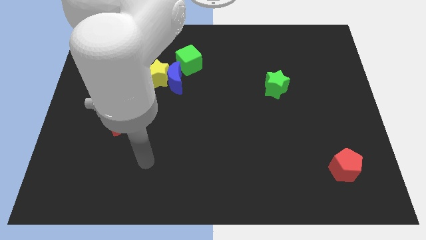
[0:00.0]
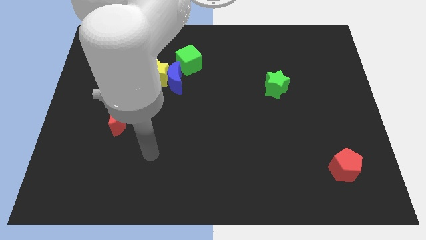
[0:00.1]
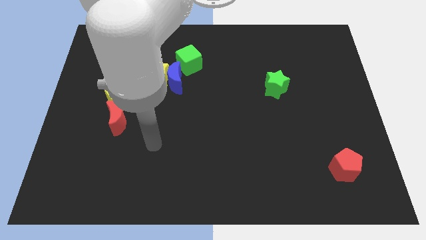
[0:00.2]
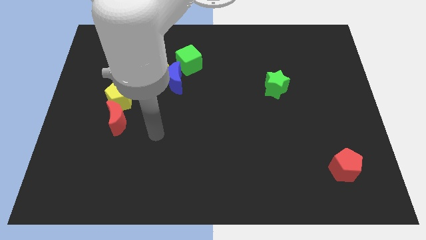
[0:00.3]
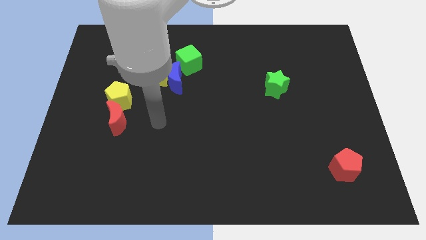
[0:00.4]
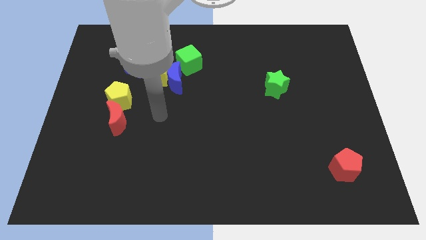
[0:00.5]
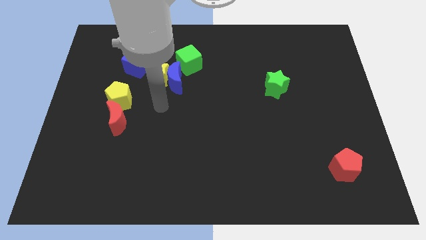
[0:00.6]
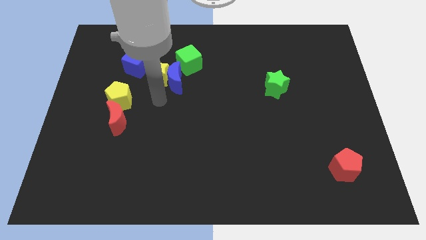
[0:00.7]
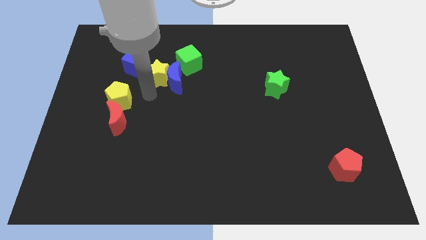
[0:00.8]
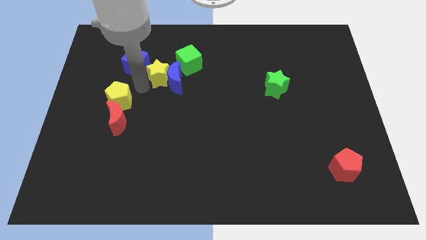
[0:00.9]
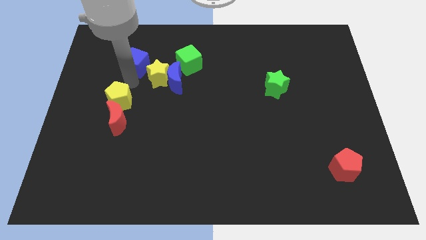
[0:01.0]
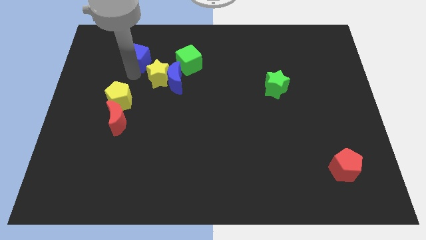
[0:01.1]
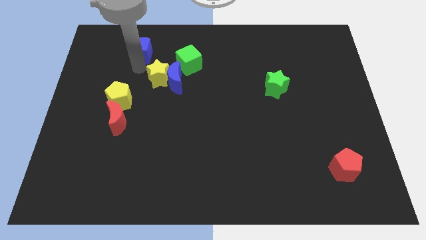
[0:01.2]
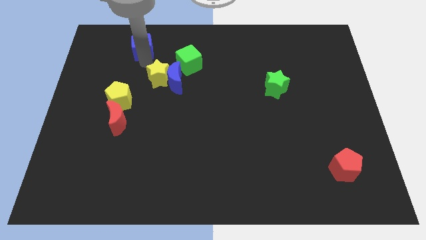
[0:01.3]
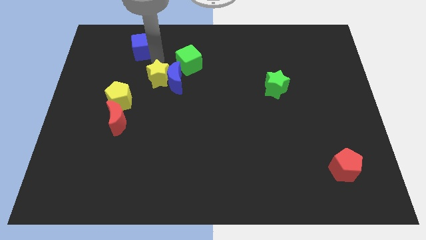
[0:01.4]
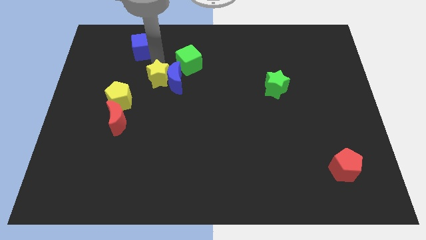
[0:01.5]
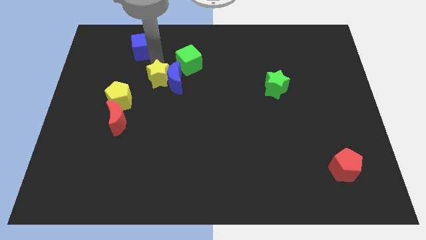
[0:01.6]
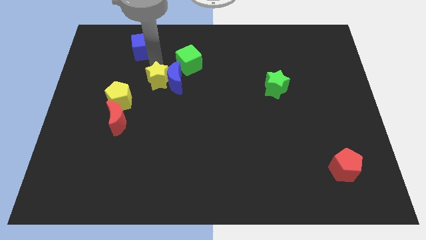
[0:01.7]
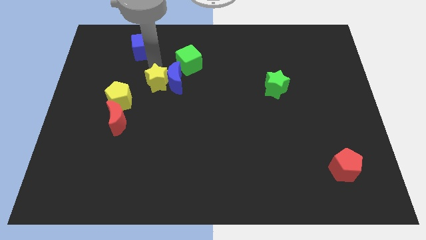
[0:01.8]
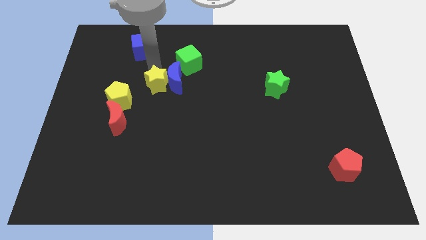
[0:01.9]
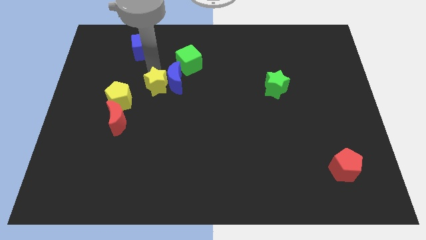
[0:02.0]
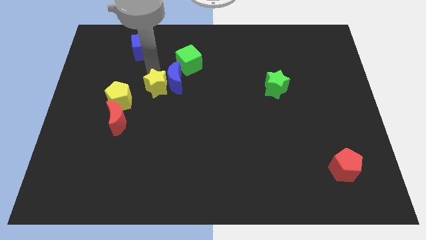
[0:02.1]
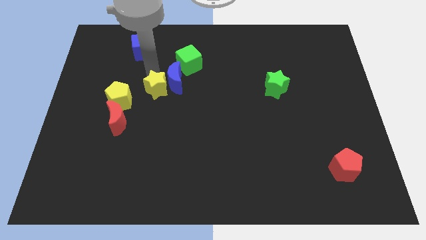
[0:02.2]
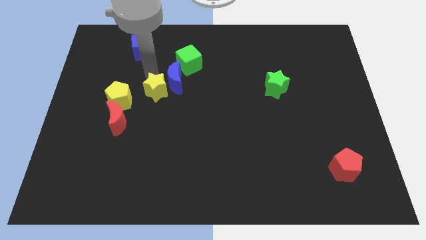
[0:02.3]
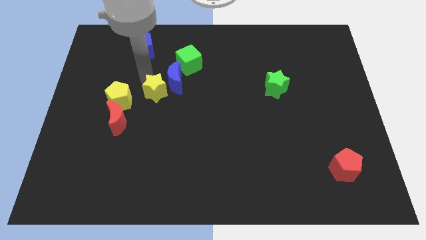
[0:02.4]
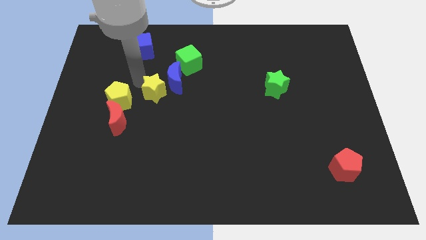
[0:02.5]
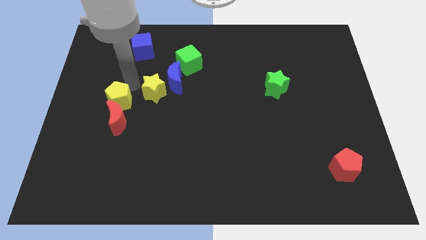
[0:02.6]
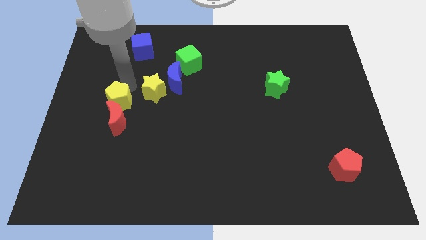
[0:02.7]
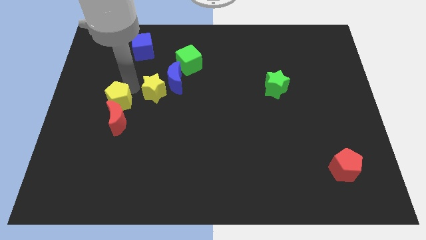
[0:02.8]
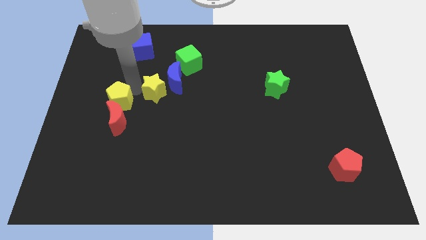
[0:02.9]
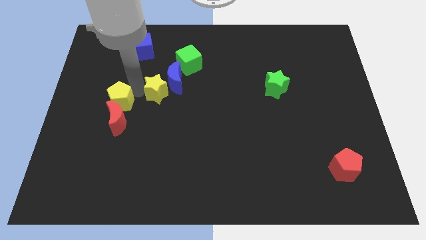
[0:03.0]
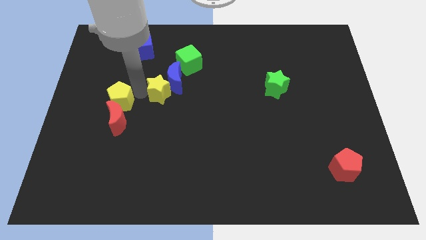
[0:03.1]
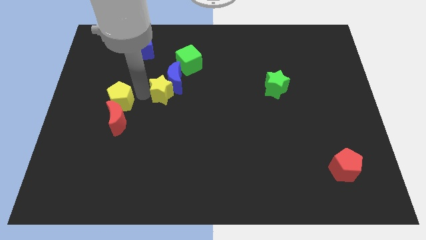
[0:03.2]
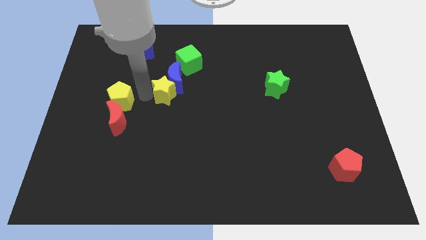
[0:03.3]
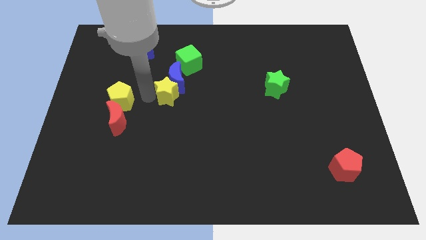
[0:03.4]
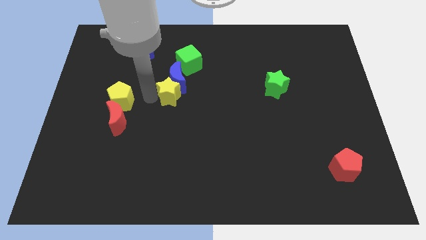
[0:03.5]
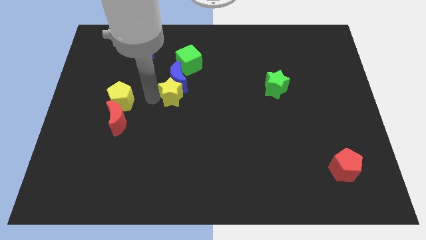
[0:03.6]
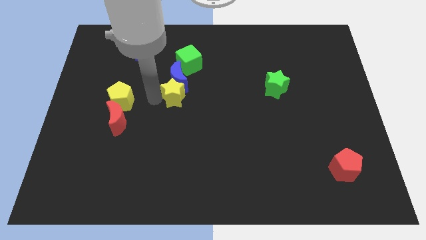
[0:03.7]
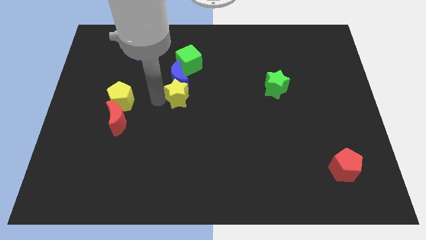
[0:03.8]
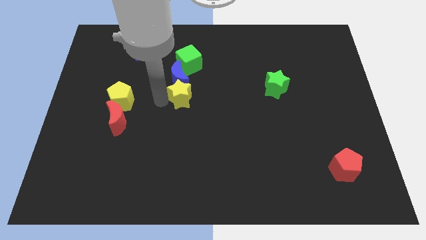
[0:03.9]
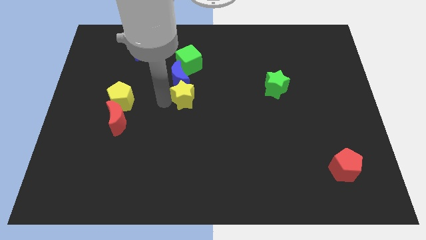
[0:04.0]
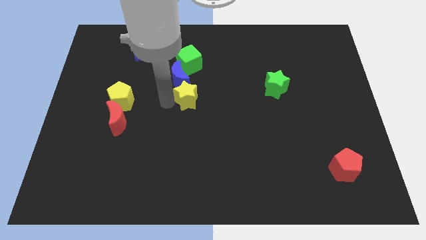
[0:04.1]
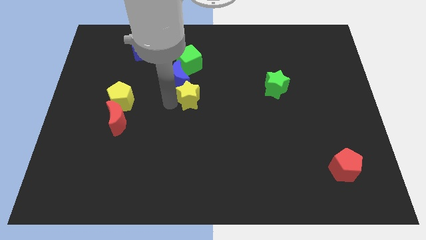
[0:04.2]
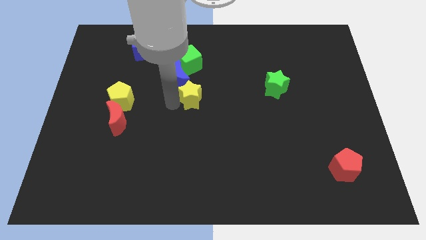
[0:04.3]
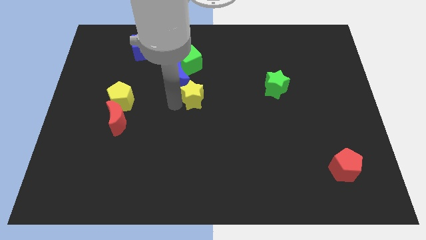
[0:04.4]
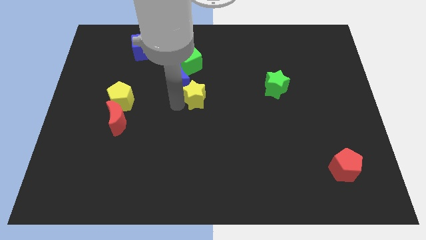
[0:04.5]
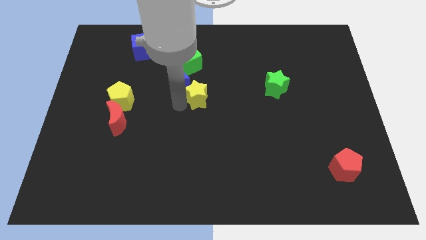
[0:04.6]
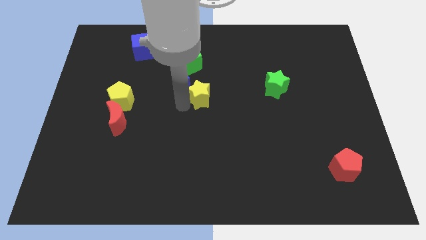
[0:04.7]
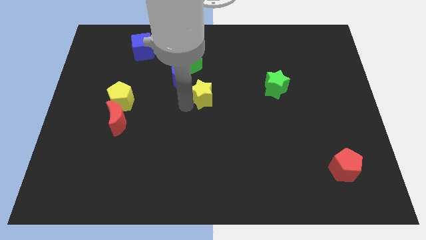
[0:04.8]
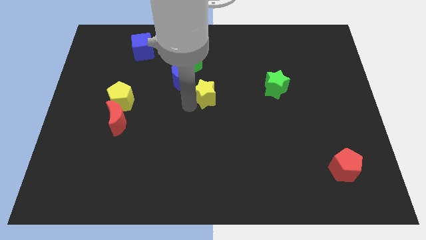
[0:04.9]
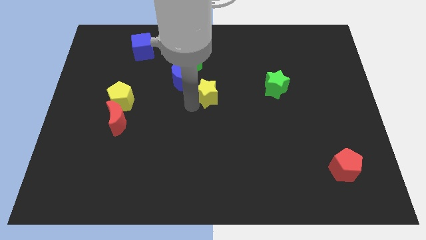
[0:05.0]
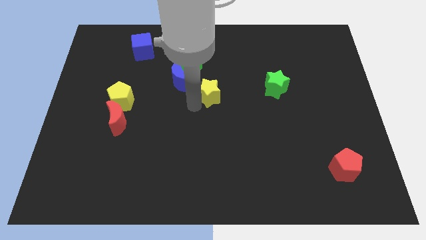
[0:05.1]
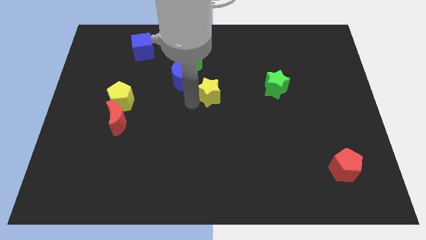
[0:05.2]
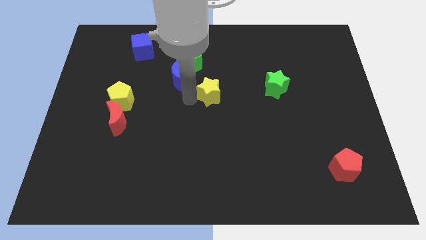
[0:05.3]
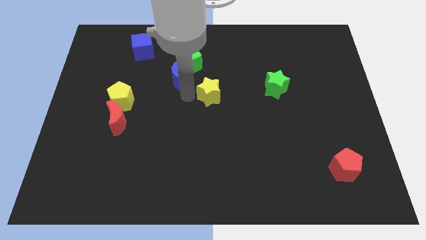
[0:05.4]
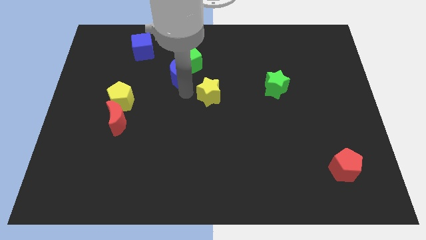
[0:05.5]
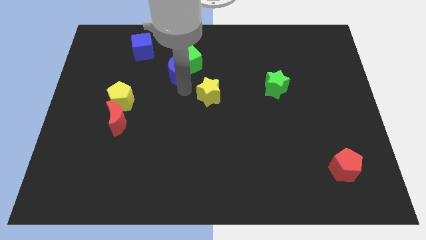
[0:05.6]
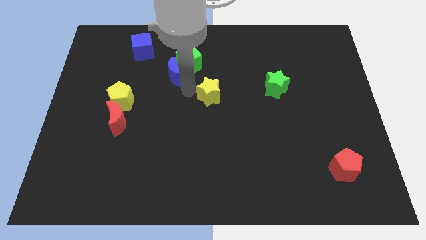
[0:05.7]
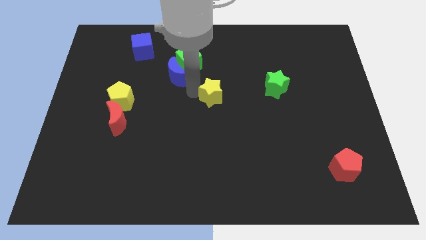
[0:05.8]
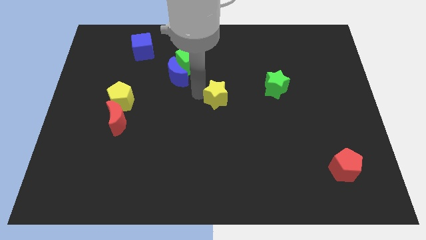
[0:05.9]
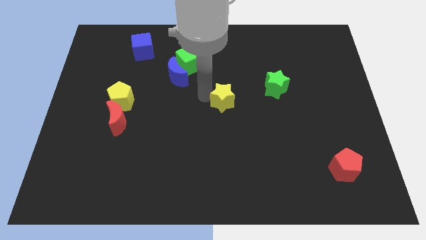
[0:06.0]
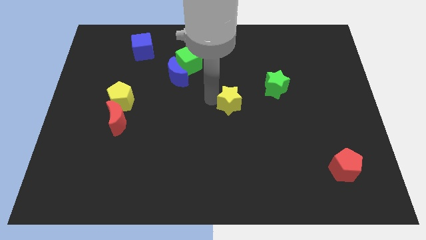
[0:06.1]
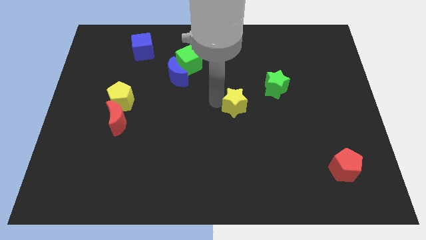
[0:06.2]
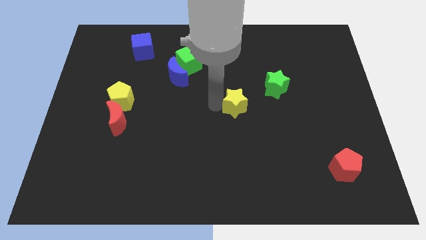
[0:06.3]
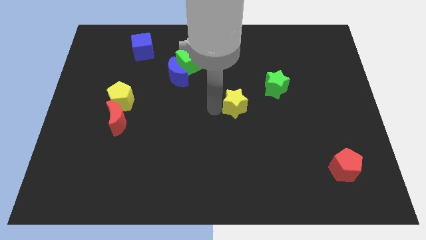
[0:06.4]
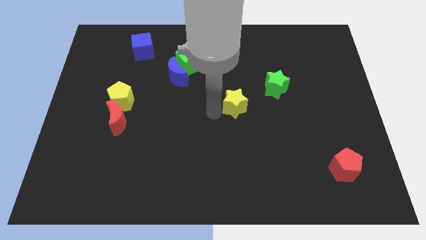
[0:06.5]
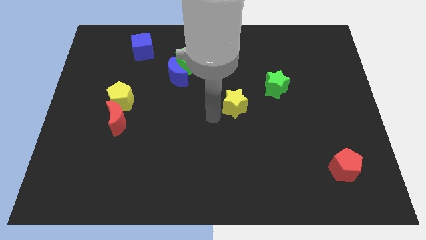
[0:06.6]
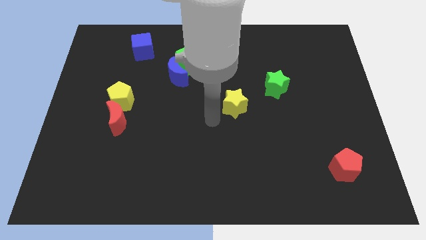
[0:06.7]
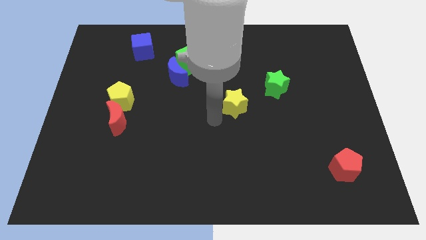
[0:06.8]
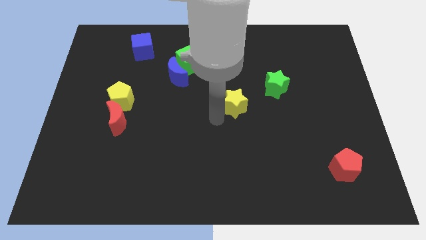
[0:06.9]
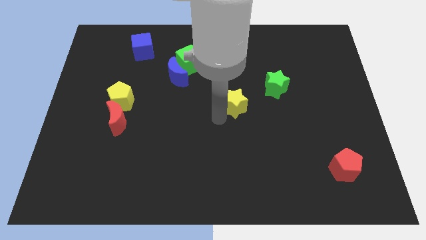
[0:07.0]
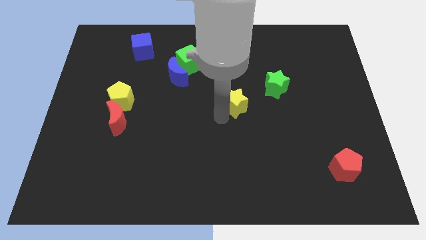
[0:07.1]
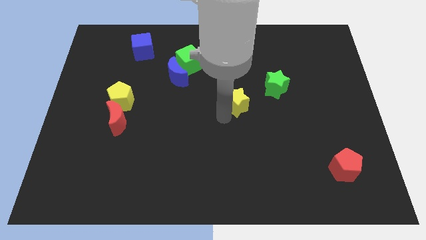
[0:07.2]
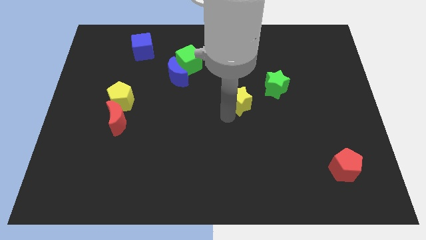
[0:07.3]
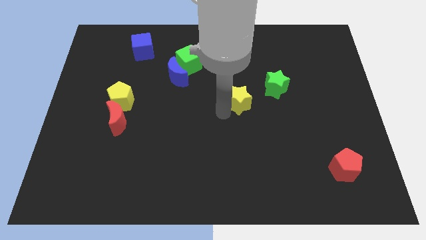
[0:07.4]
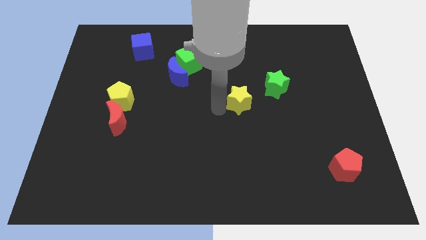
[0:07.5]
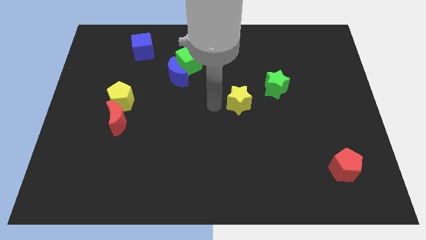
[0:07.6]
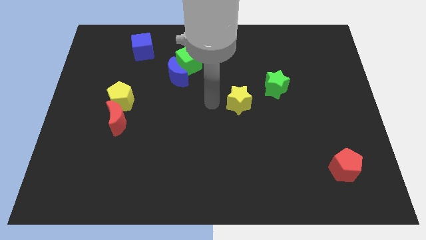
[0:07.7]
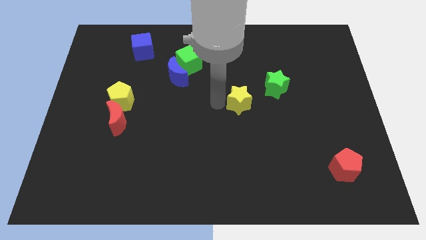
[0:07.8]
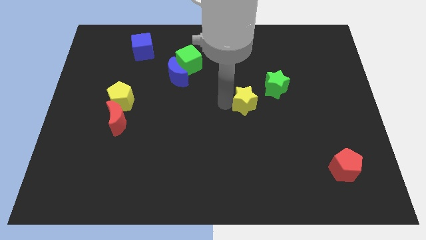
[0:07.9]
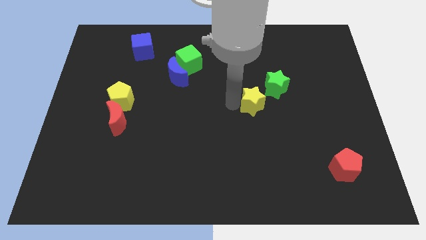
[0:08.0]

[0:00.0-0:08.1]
push the yellow star to the right
